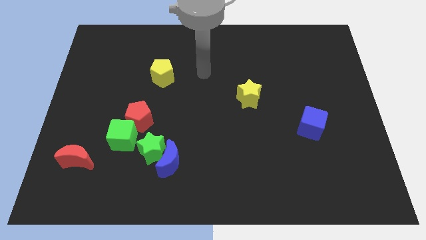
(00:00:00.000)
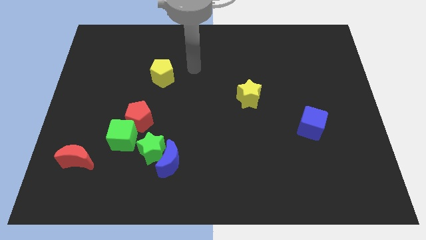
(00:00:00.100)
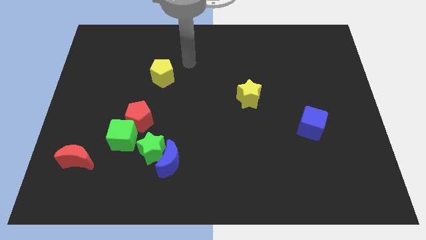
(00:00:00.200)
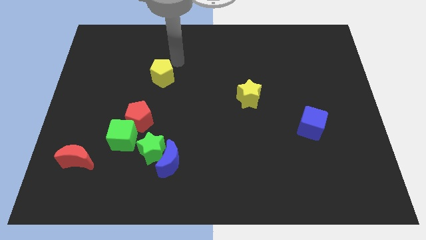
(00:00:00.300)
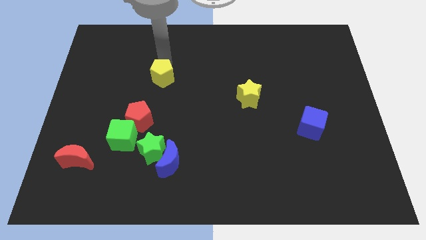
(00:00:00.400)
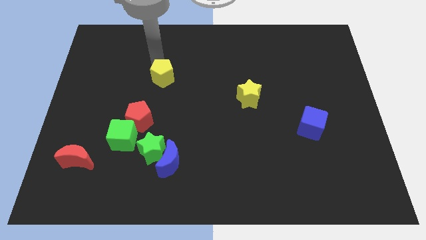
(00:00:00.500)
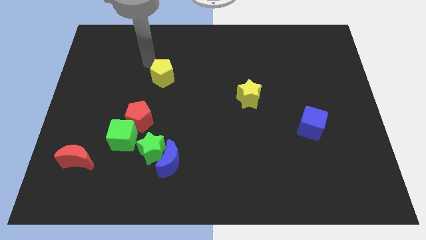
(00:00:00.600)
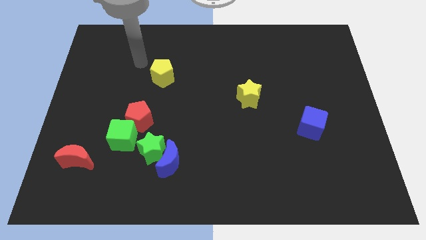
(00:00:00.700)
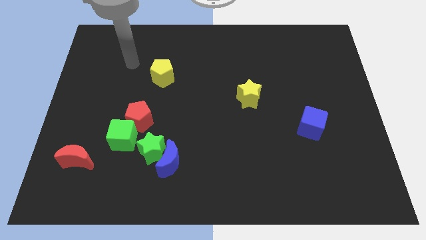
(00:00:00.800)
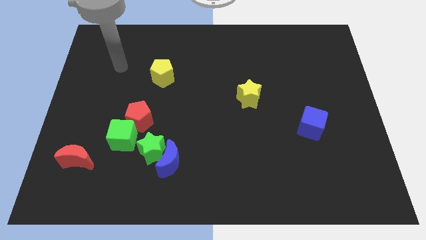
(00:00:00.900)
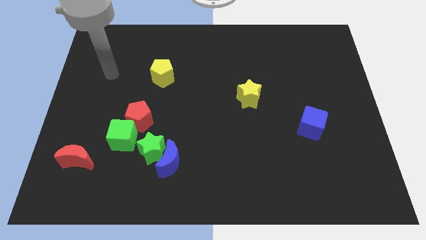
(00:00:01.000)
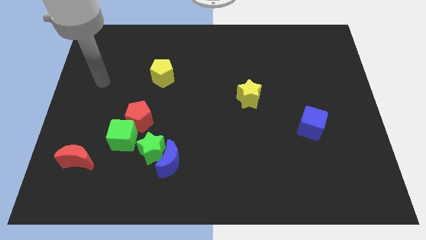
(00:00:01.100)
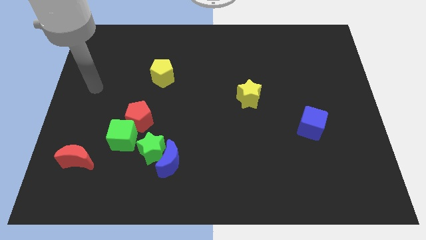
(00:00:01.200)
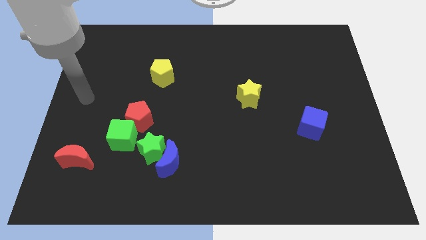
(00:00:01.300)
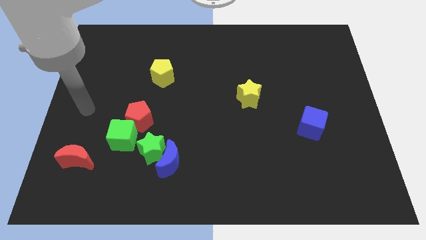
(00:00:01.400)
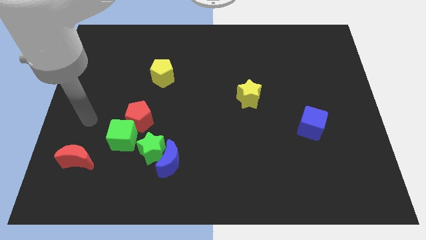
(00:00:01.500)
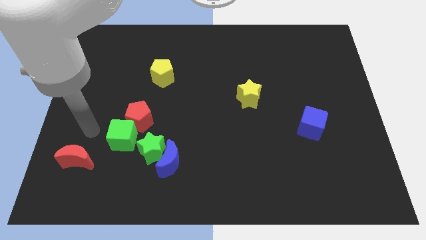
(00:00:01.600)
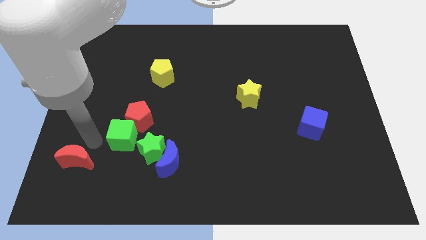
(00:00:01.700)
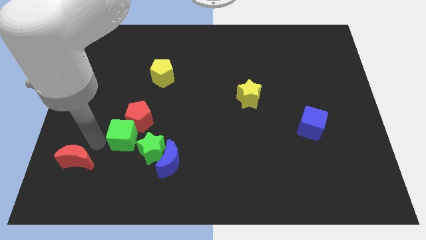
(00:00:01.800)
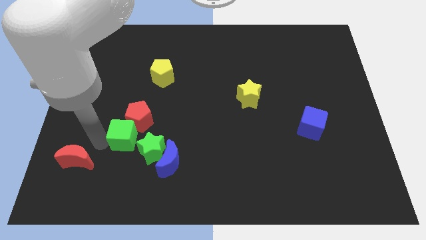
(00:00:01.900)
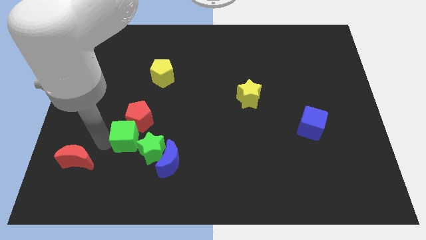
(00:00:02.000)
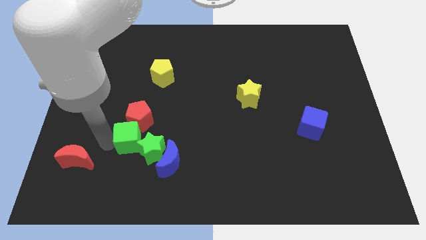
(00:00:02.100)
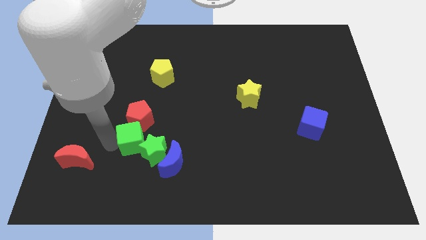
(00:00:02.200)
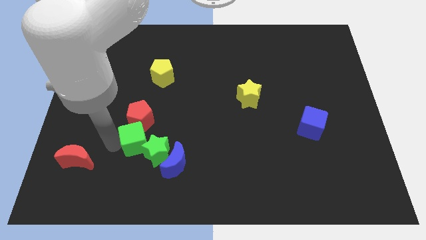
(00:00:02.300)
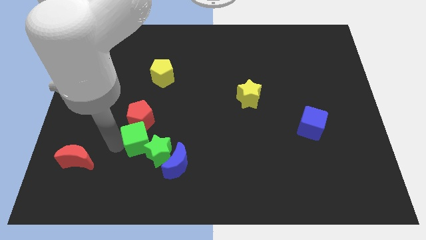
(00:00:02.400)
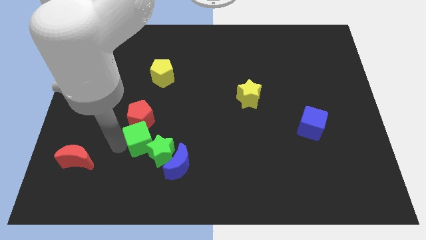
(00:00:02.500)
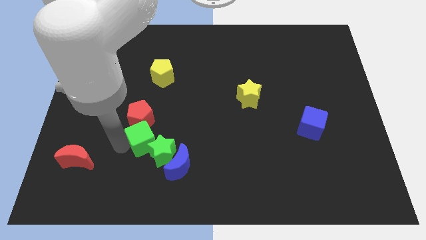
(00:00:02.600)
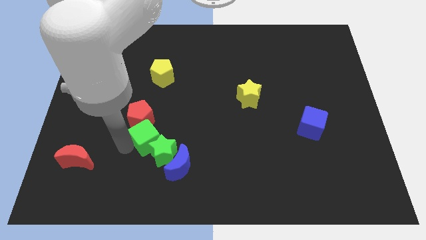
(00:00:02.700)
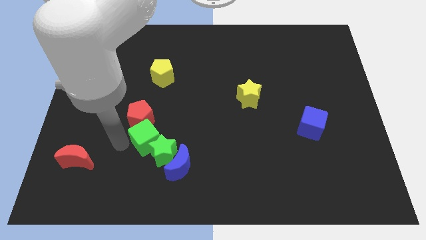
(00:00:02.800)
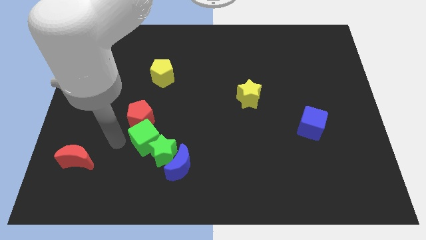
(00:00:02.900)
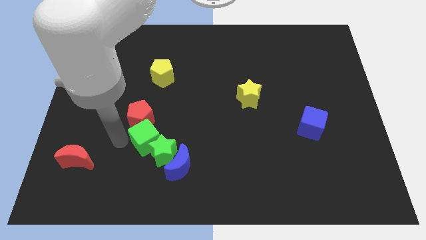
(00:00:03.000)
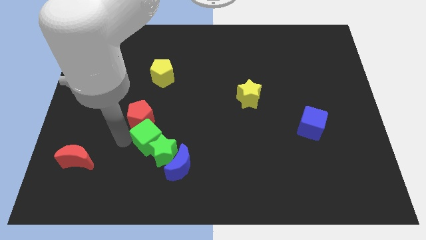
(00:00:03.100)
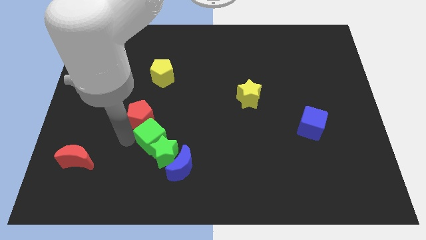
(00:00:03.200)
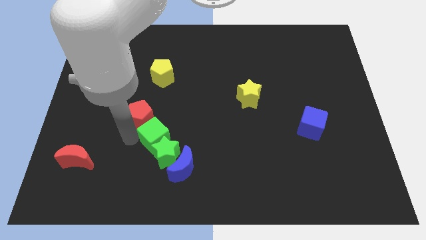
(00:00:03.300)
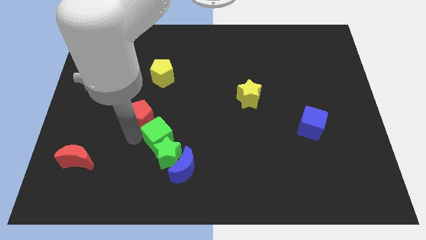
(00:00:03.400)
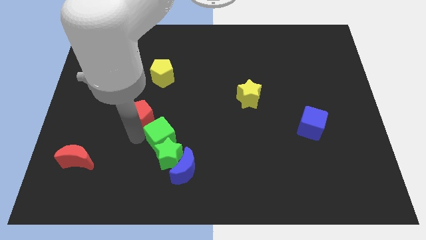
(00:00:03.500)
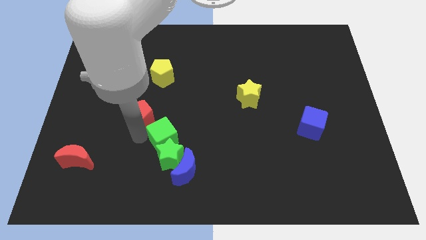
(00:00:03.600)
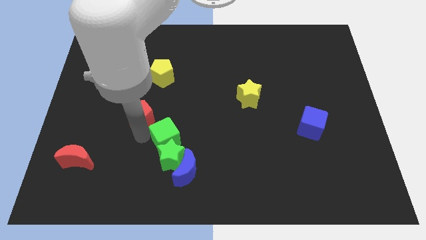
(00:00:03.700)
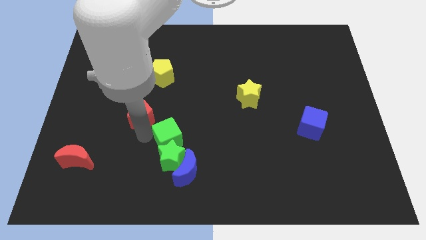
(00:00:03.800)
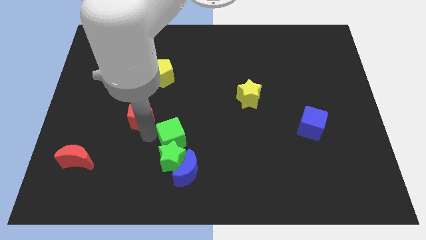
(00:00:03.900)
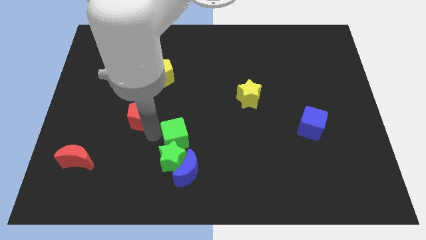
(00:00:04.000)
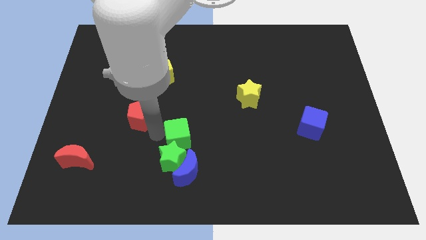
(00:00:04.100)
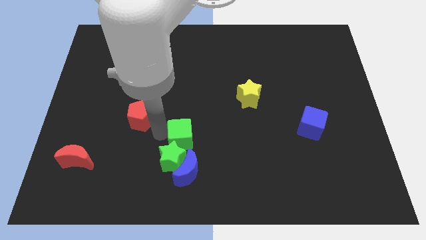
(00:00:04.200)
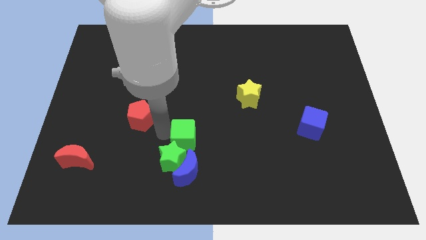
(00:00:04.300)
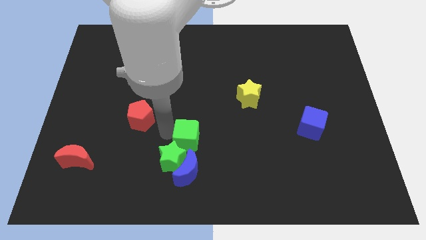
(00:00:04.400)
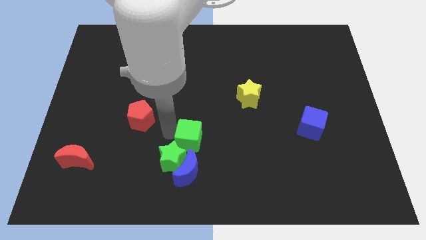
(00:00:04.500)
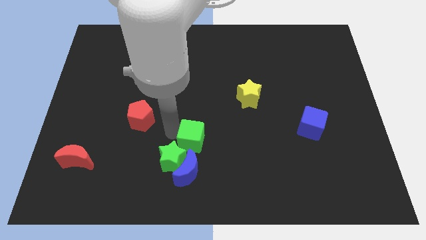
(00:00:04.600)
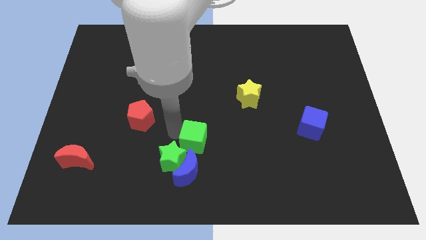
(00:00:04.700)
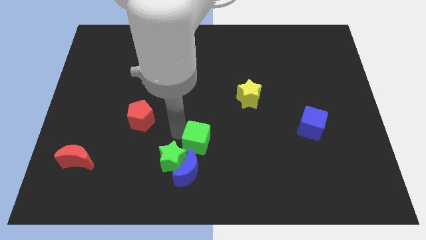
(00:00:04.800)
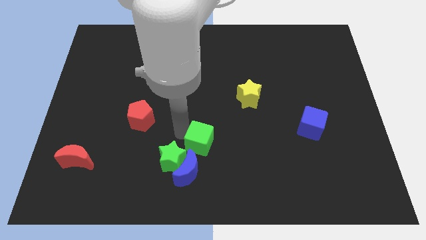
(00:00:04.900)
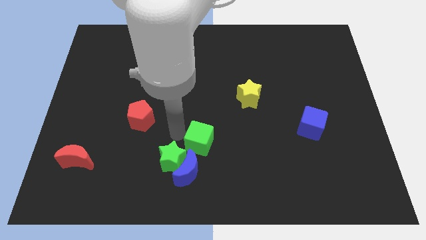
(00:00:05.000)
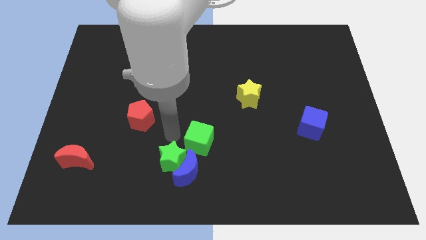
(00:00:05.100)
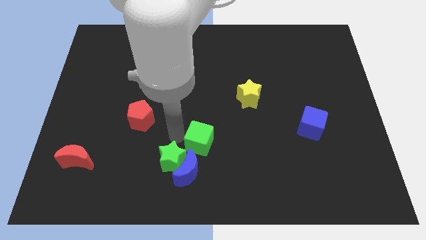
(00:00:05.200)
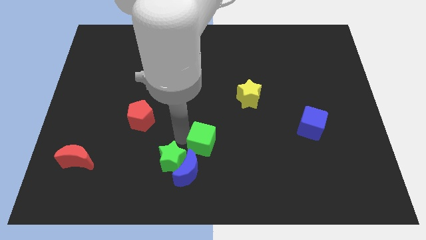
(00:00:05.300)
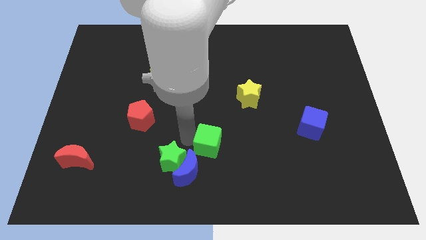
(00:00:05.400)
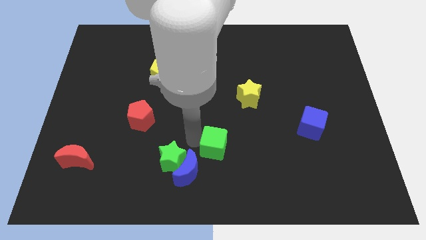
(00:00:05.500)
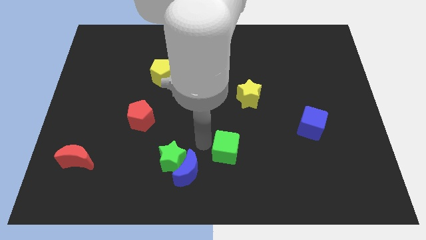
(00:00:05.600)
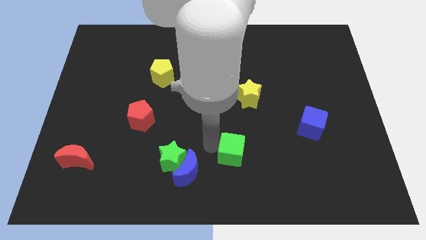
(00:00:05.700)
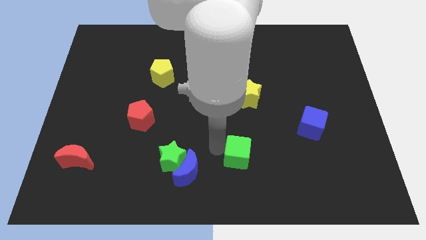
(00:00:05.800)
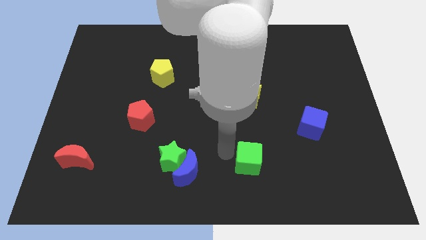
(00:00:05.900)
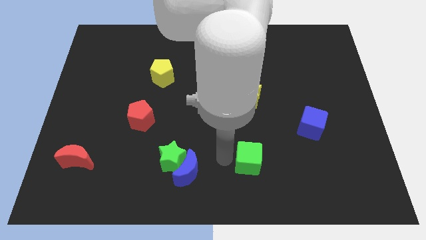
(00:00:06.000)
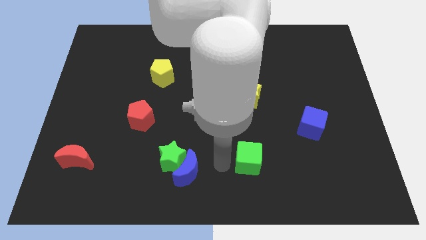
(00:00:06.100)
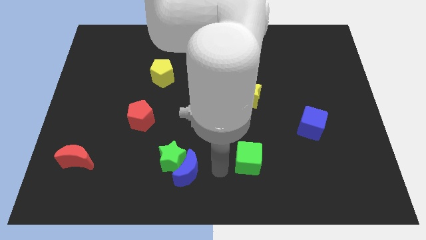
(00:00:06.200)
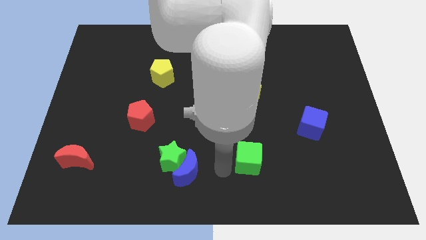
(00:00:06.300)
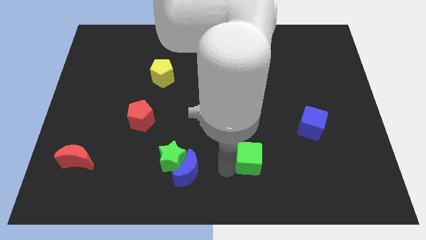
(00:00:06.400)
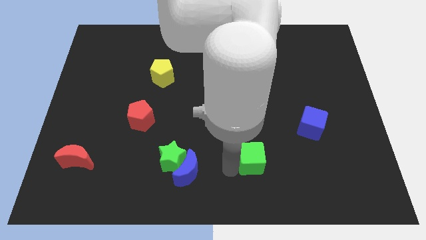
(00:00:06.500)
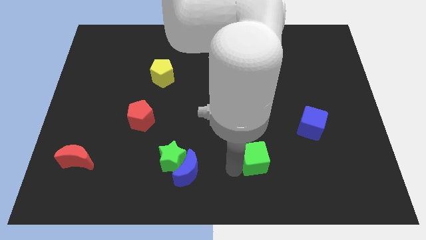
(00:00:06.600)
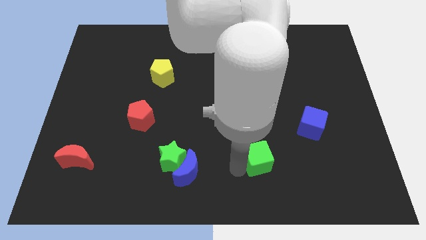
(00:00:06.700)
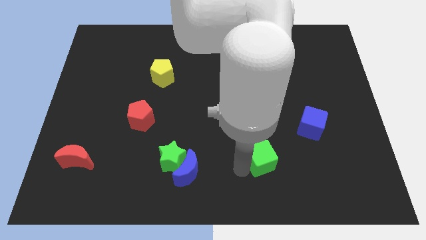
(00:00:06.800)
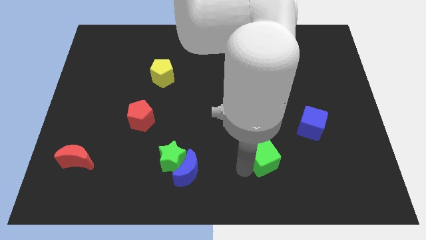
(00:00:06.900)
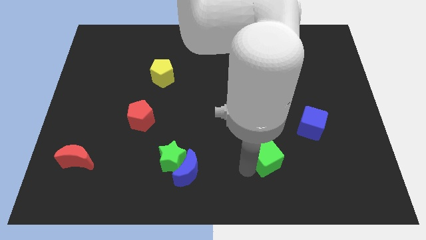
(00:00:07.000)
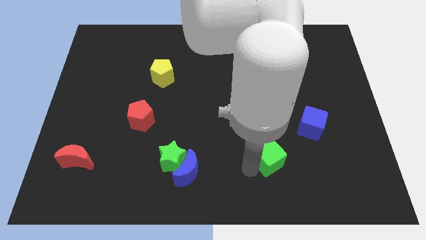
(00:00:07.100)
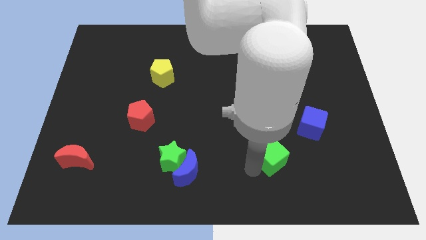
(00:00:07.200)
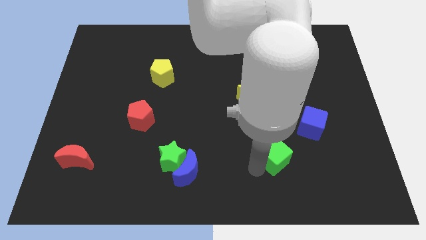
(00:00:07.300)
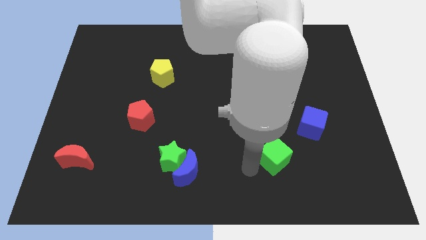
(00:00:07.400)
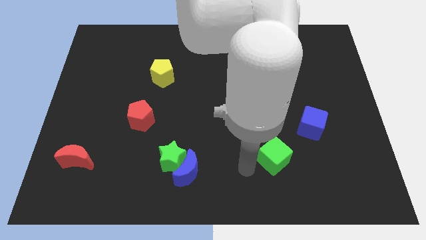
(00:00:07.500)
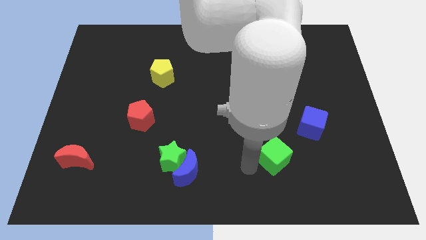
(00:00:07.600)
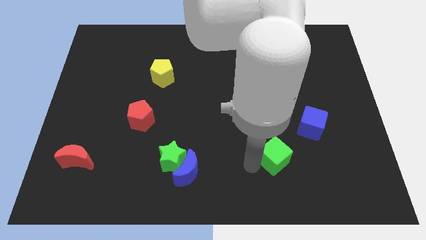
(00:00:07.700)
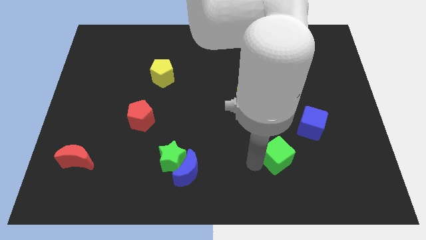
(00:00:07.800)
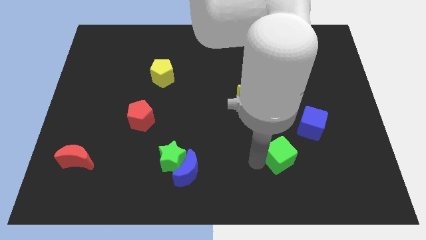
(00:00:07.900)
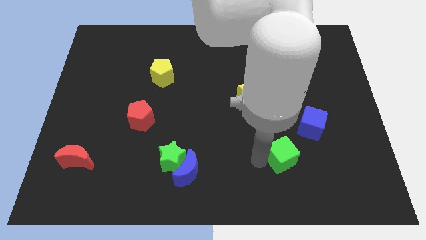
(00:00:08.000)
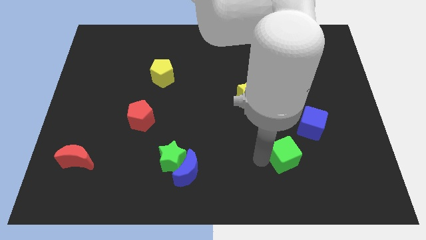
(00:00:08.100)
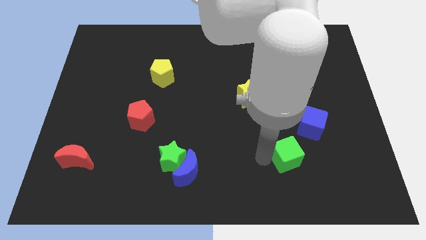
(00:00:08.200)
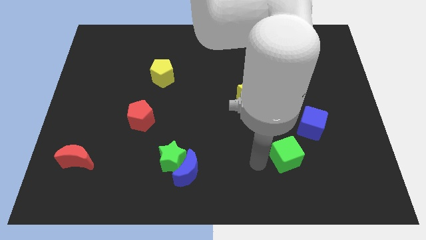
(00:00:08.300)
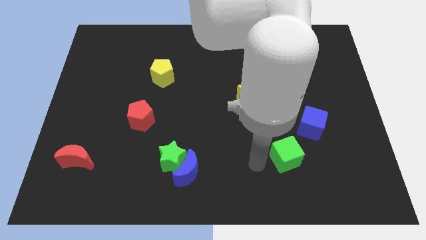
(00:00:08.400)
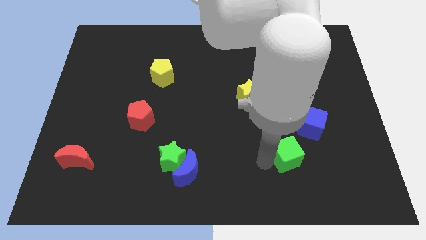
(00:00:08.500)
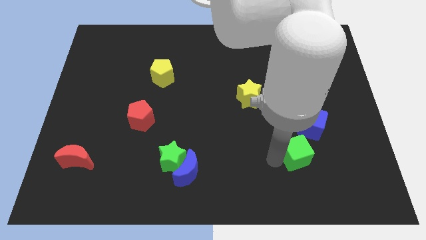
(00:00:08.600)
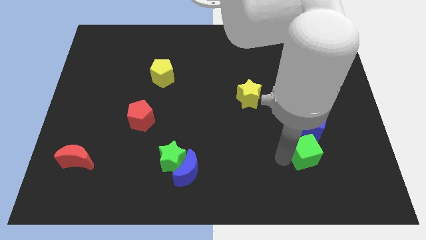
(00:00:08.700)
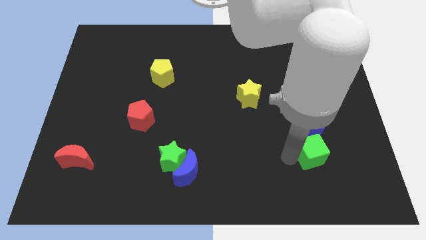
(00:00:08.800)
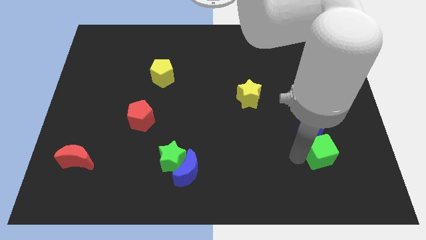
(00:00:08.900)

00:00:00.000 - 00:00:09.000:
push the green cube to the bottom right side of the blue cube
